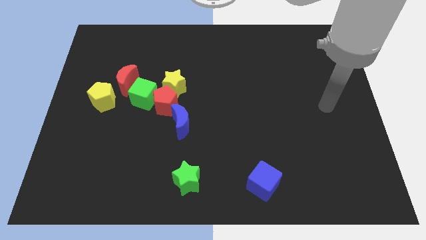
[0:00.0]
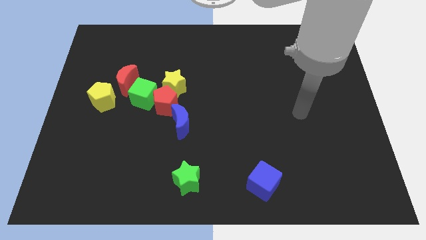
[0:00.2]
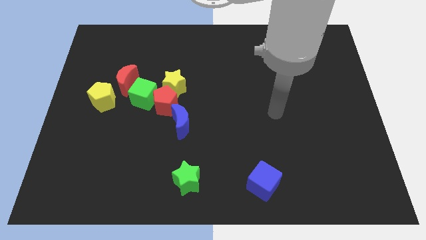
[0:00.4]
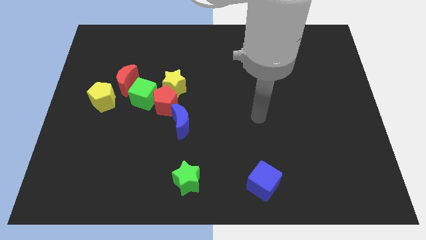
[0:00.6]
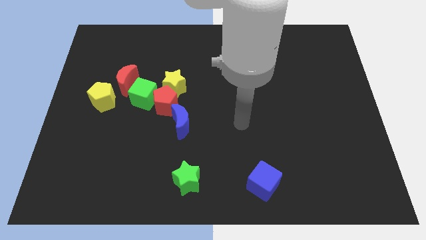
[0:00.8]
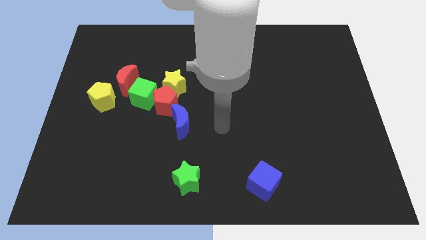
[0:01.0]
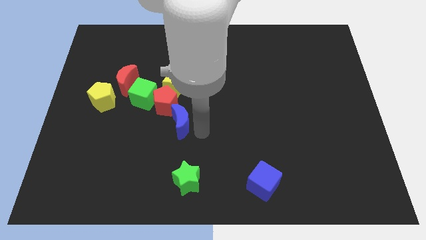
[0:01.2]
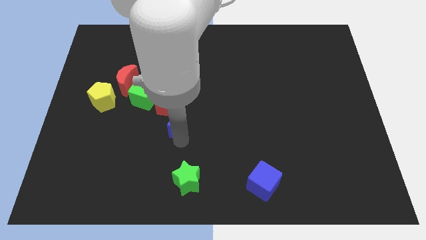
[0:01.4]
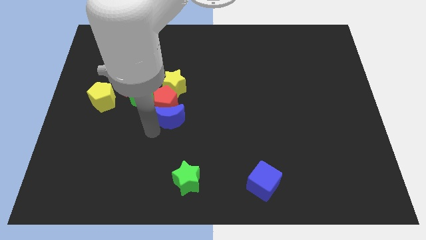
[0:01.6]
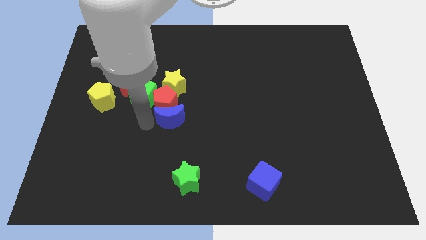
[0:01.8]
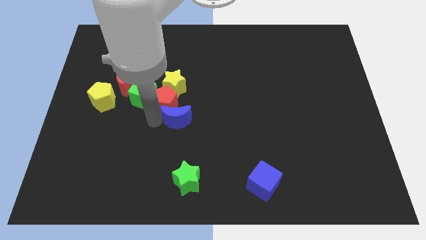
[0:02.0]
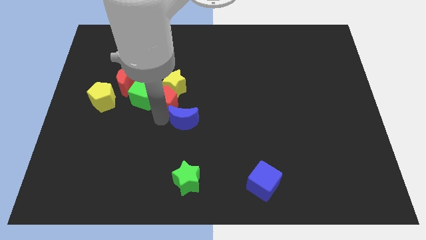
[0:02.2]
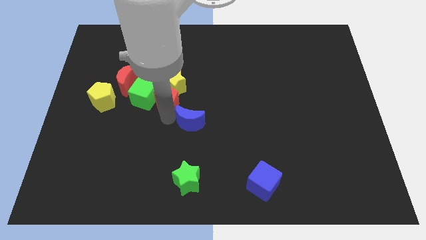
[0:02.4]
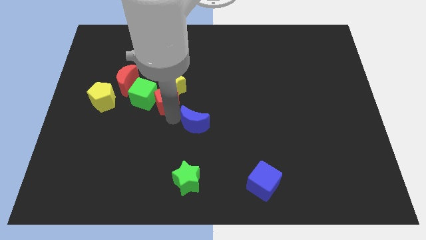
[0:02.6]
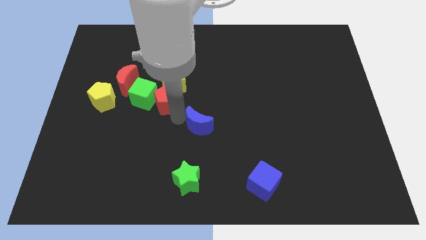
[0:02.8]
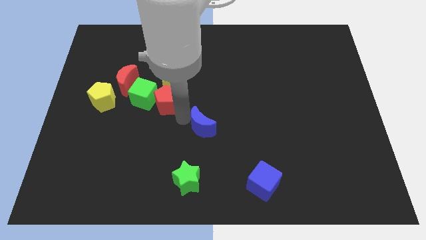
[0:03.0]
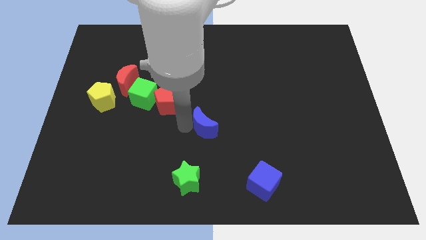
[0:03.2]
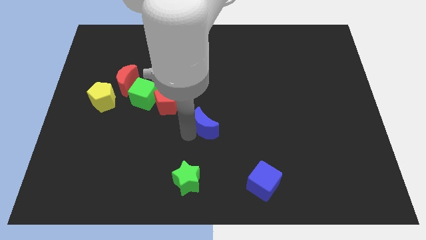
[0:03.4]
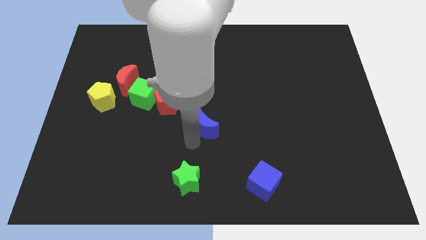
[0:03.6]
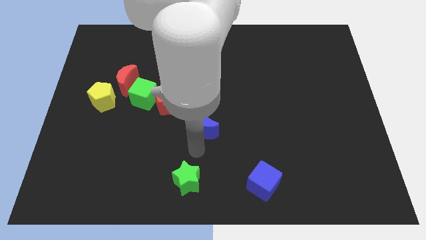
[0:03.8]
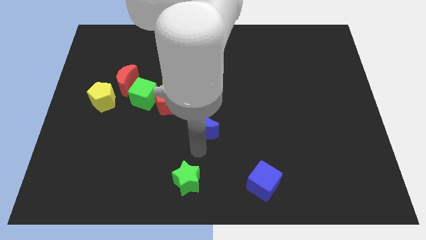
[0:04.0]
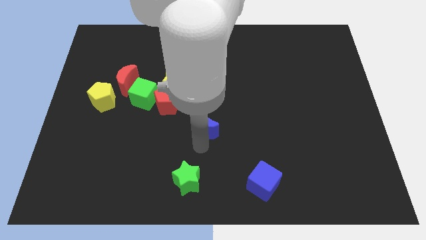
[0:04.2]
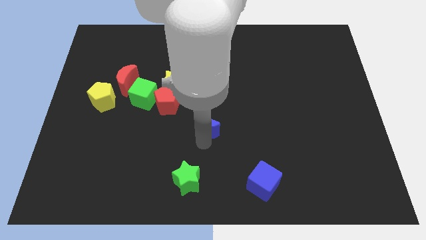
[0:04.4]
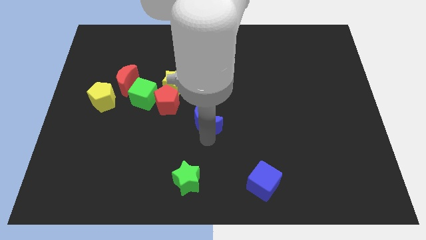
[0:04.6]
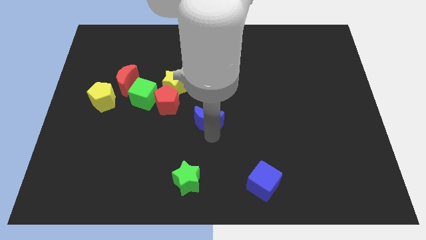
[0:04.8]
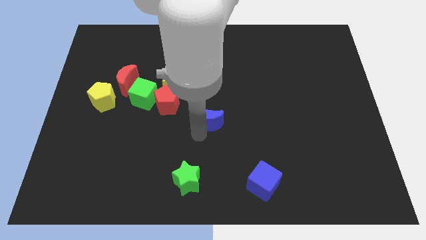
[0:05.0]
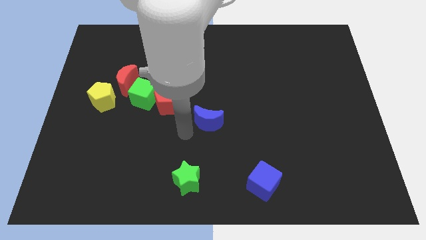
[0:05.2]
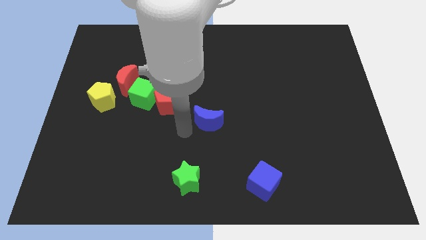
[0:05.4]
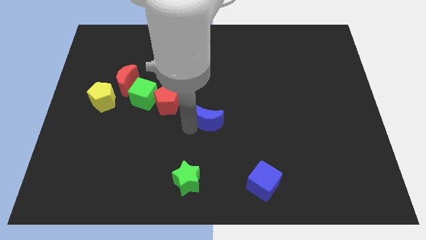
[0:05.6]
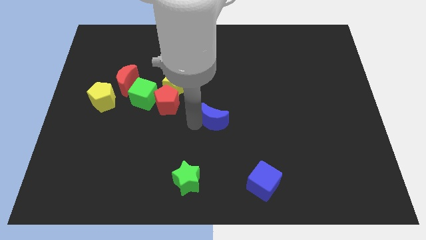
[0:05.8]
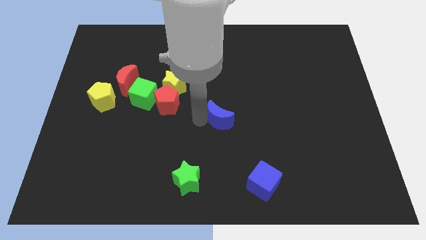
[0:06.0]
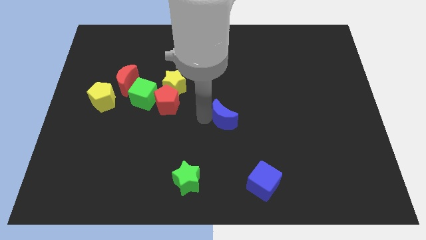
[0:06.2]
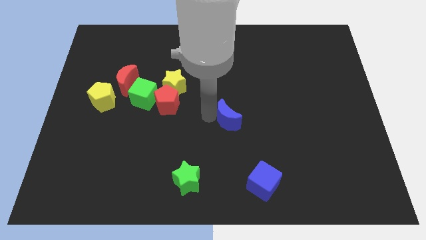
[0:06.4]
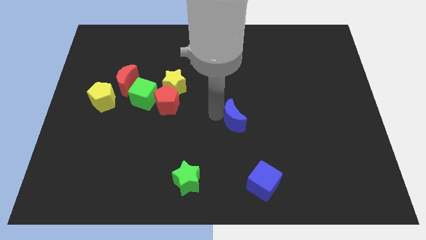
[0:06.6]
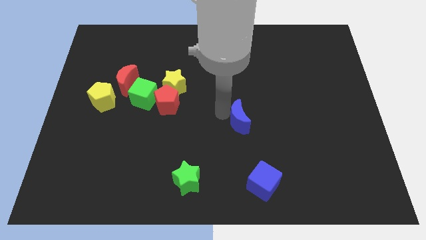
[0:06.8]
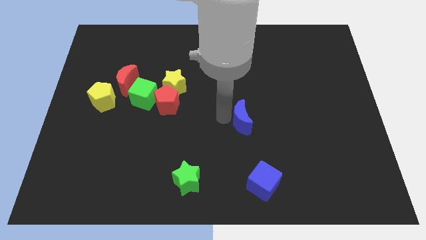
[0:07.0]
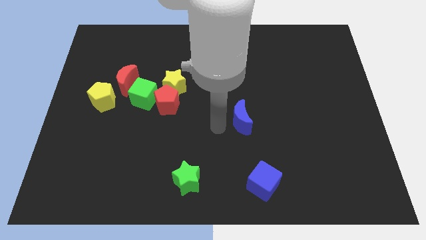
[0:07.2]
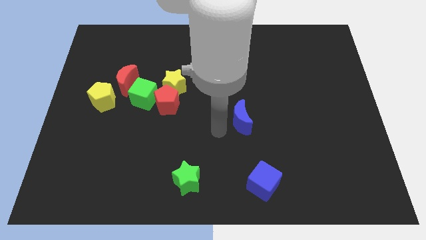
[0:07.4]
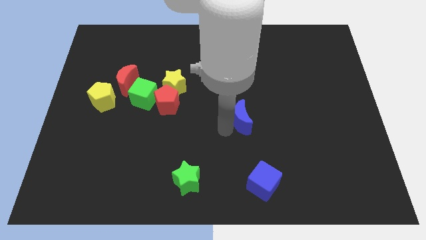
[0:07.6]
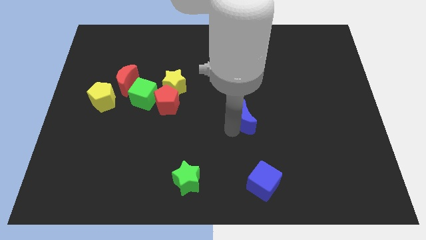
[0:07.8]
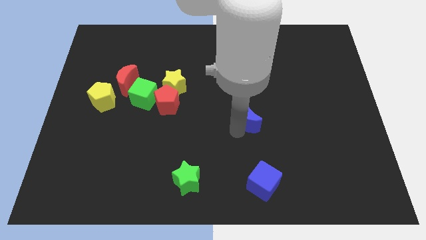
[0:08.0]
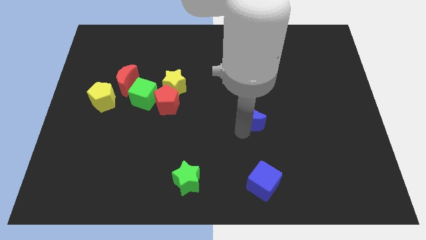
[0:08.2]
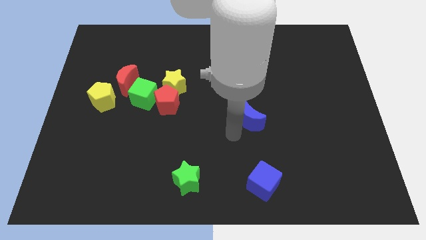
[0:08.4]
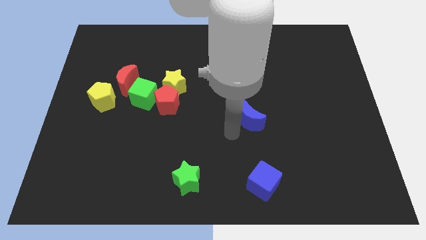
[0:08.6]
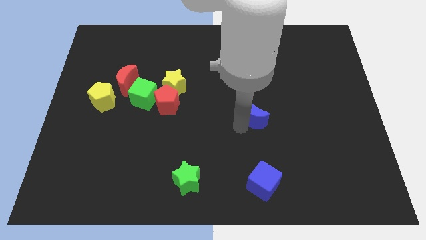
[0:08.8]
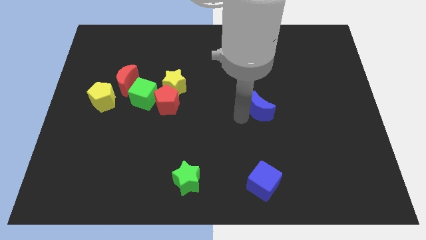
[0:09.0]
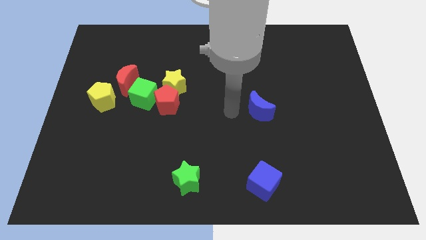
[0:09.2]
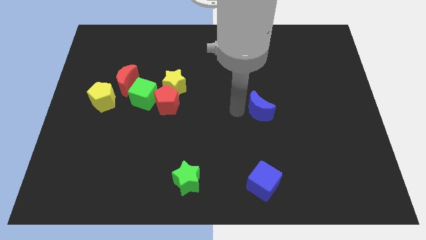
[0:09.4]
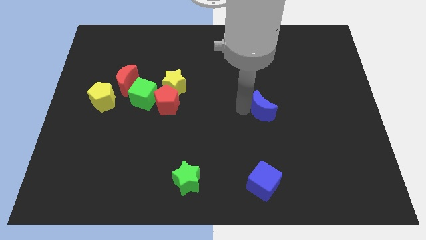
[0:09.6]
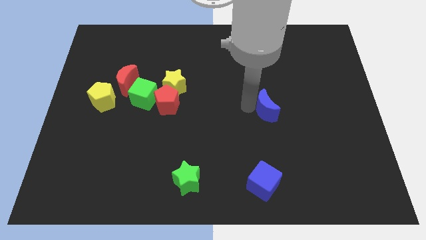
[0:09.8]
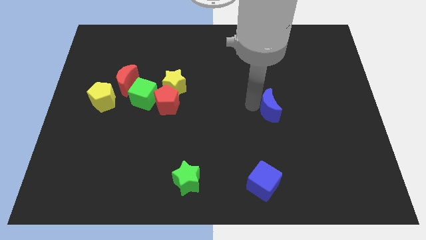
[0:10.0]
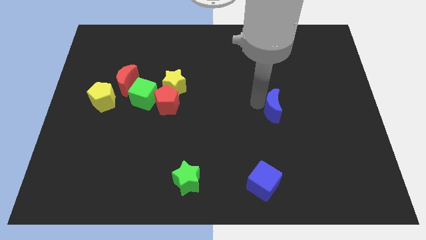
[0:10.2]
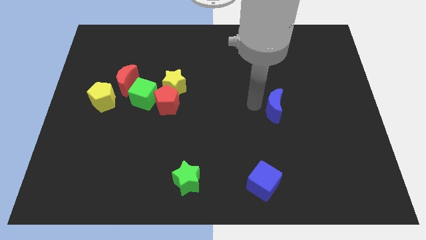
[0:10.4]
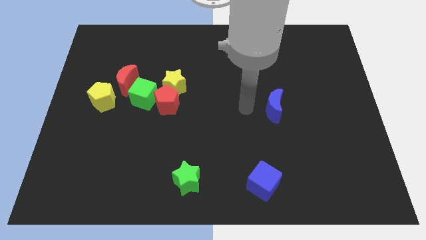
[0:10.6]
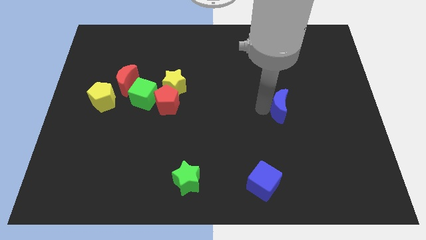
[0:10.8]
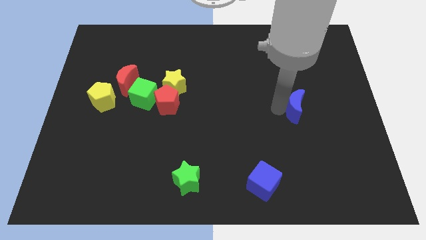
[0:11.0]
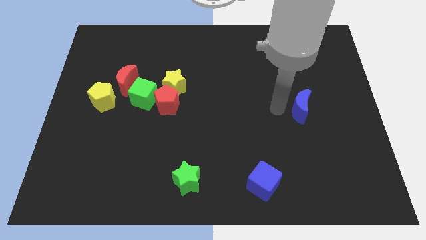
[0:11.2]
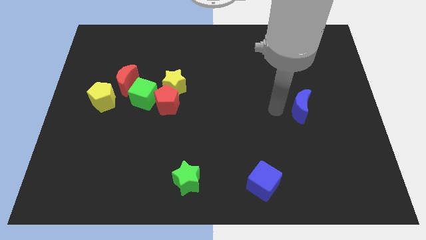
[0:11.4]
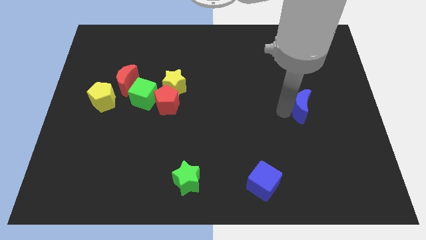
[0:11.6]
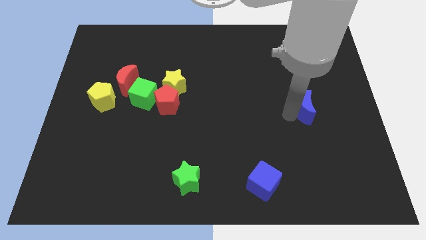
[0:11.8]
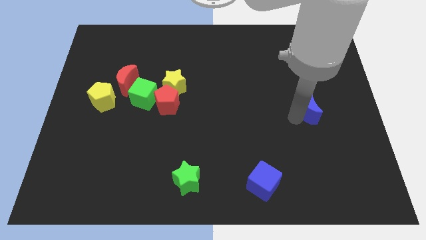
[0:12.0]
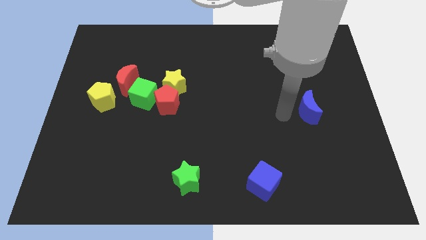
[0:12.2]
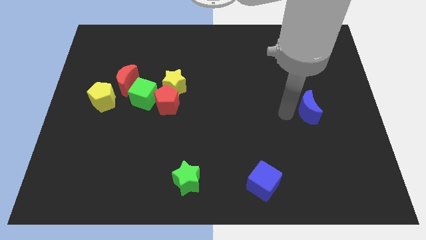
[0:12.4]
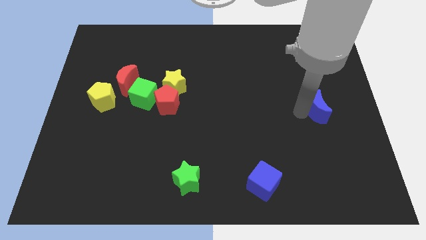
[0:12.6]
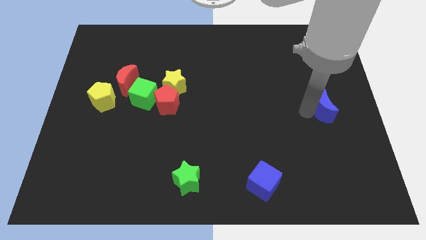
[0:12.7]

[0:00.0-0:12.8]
put the blue moon to the center right
